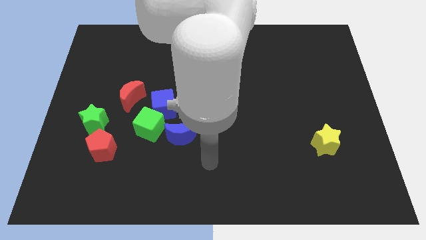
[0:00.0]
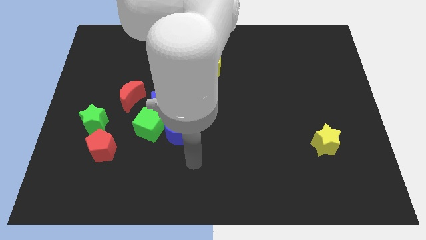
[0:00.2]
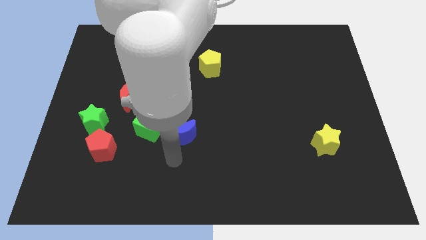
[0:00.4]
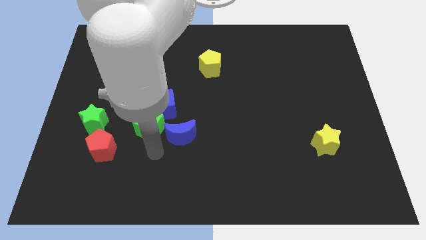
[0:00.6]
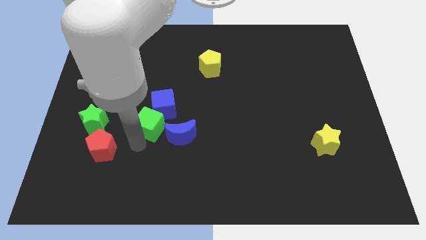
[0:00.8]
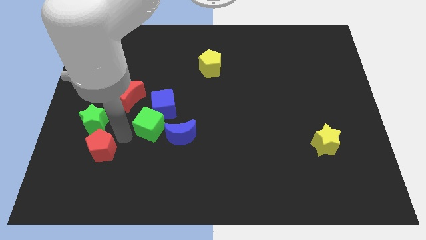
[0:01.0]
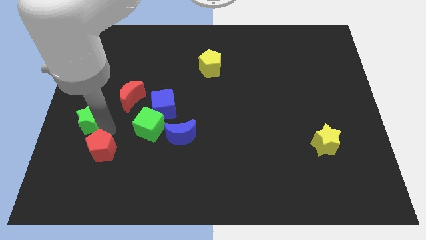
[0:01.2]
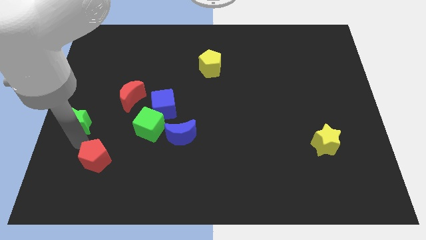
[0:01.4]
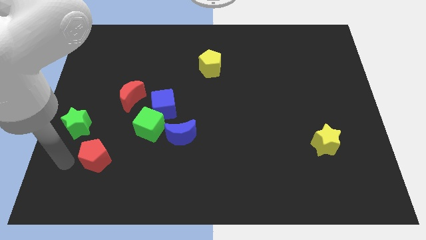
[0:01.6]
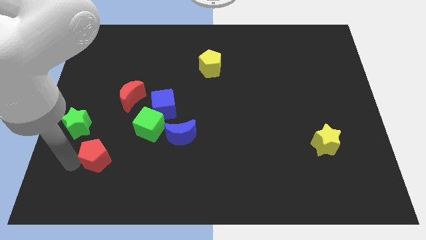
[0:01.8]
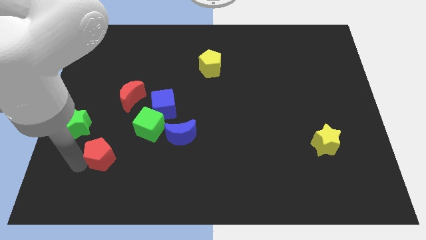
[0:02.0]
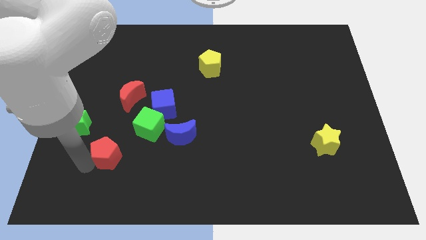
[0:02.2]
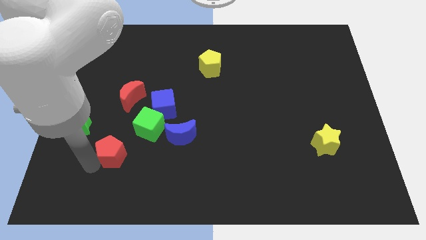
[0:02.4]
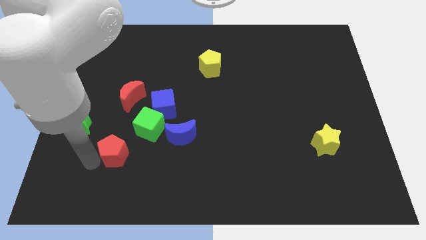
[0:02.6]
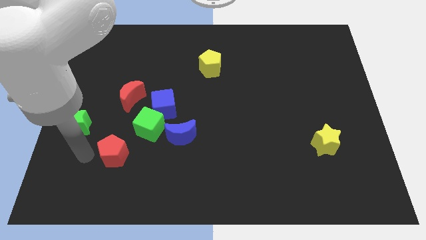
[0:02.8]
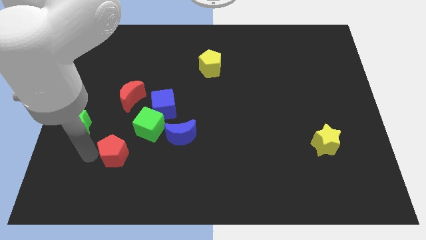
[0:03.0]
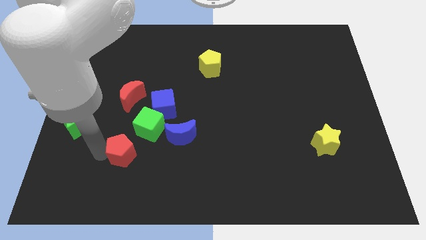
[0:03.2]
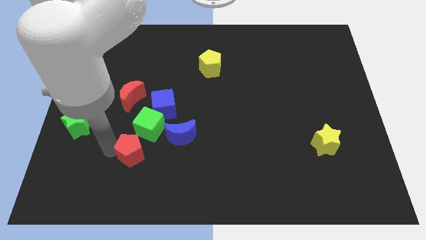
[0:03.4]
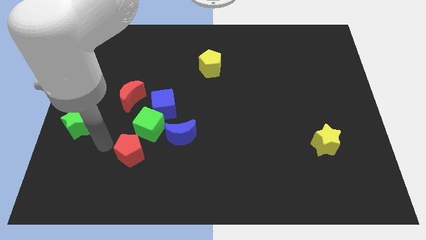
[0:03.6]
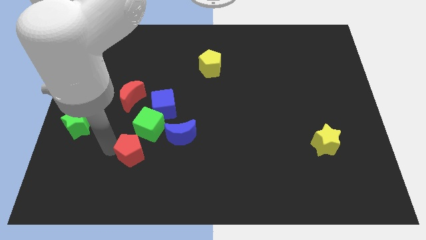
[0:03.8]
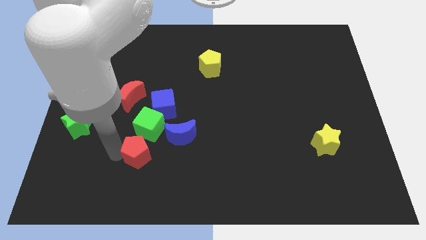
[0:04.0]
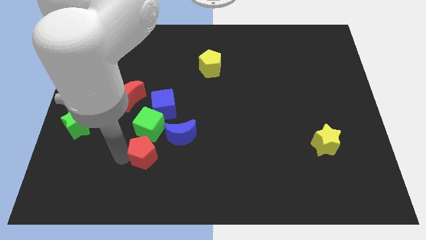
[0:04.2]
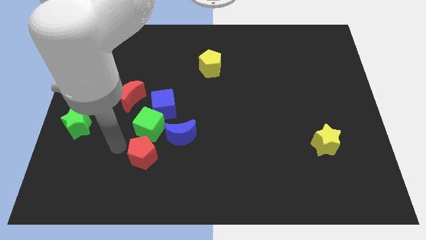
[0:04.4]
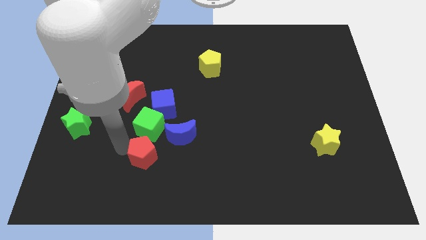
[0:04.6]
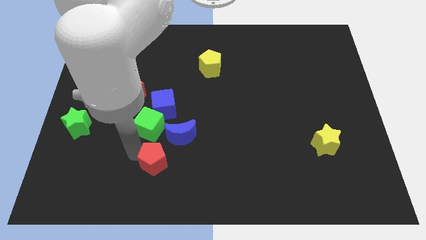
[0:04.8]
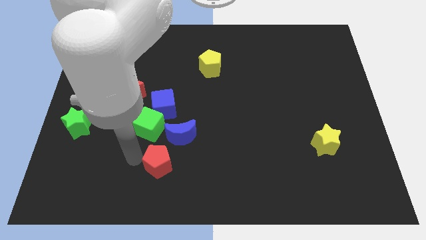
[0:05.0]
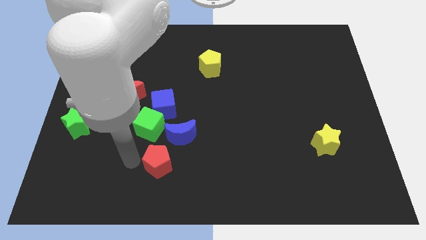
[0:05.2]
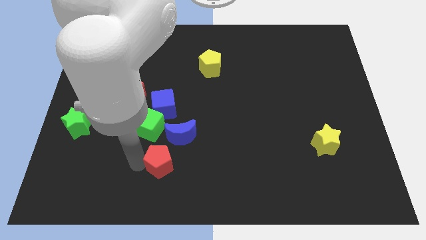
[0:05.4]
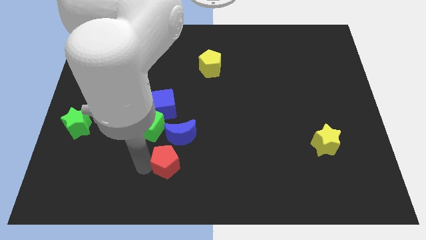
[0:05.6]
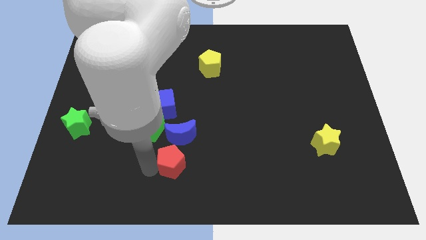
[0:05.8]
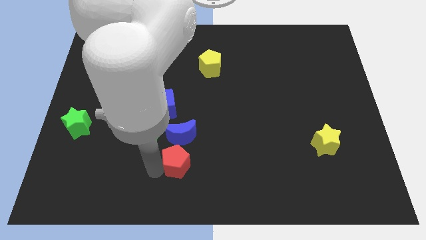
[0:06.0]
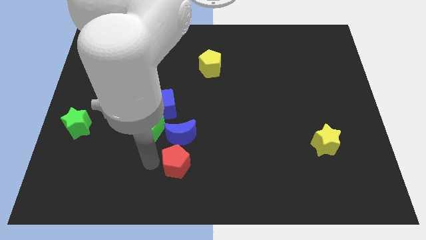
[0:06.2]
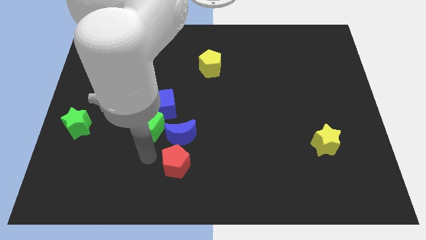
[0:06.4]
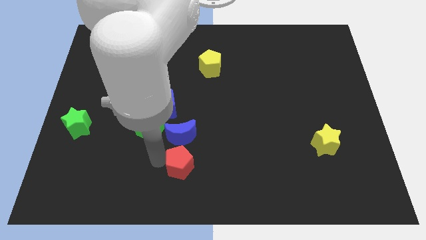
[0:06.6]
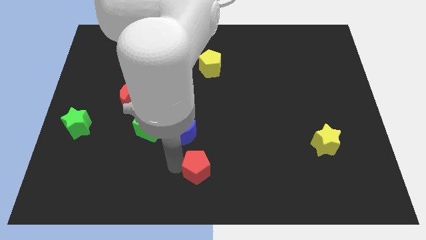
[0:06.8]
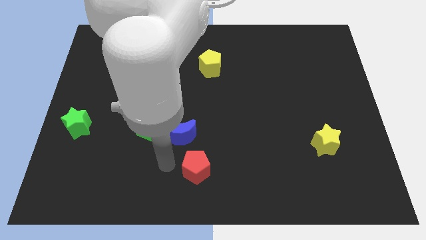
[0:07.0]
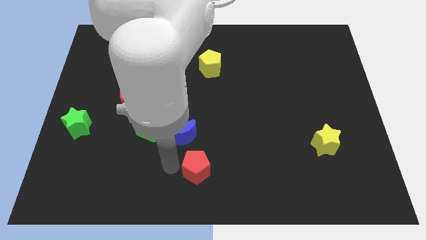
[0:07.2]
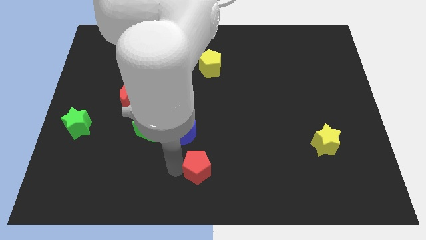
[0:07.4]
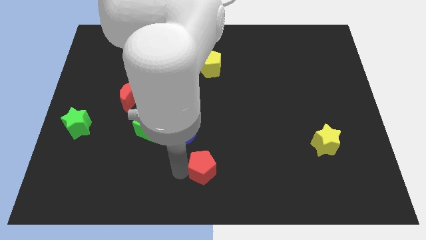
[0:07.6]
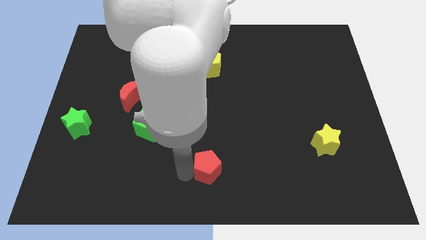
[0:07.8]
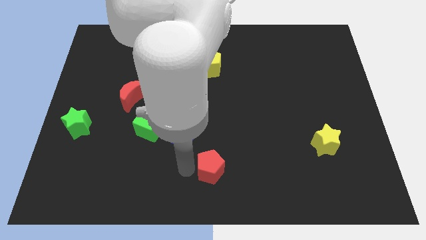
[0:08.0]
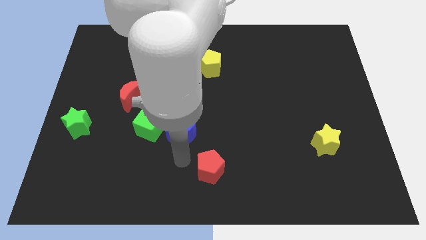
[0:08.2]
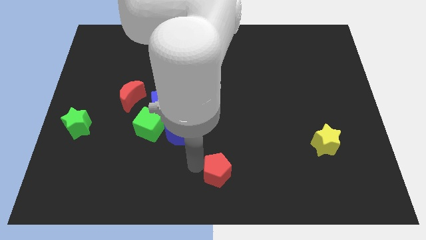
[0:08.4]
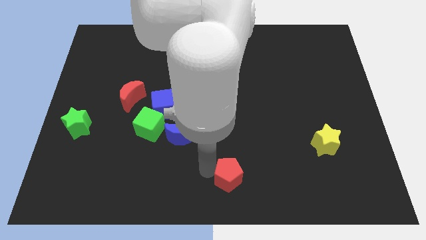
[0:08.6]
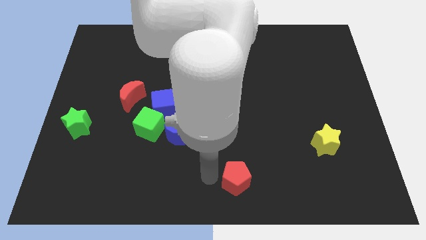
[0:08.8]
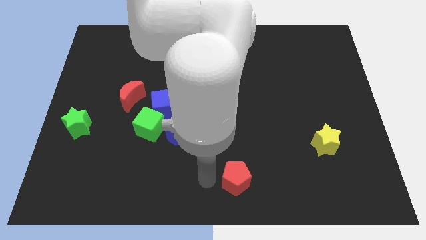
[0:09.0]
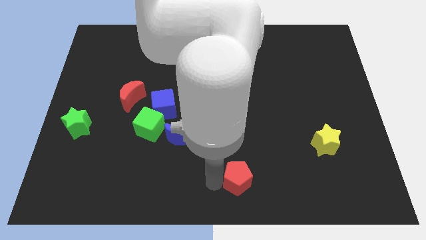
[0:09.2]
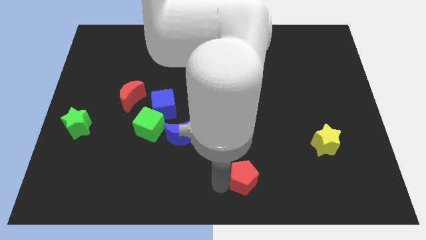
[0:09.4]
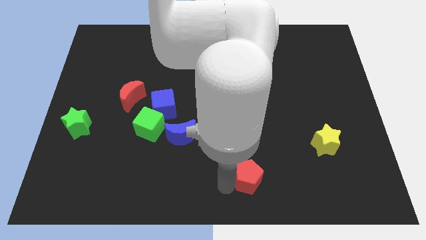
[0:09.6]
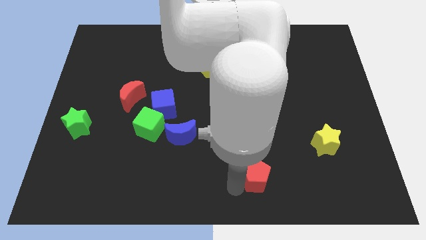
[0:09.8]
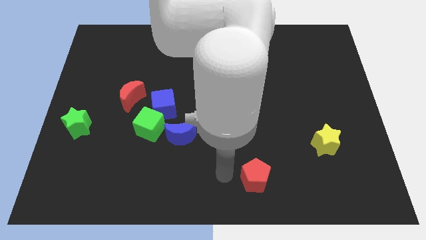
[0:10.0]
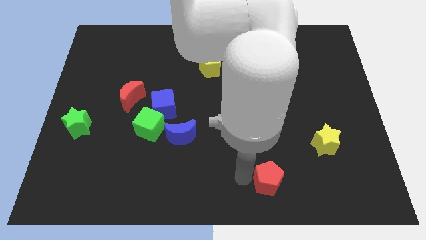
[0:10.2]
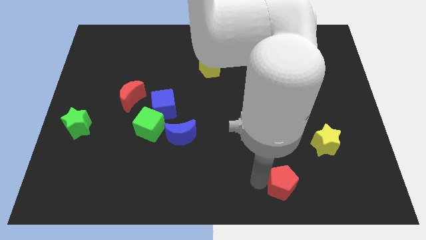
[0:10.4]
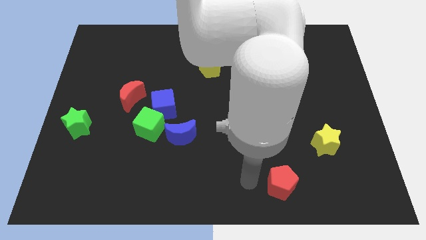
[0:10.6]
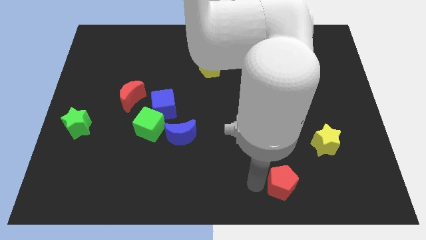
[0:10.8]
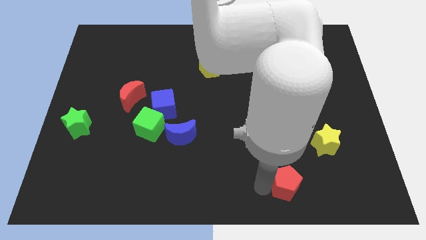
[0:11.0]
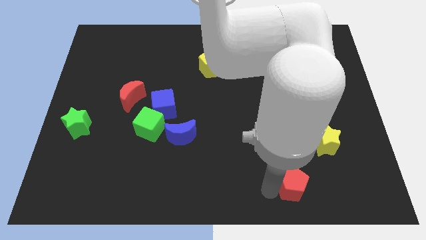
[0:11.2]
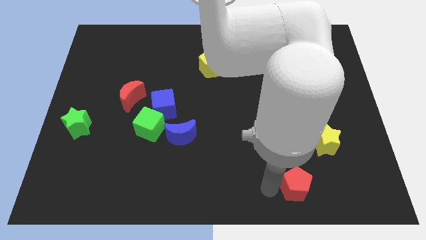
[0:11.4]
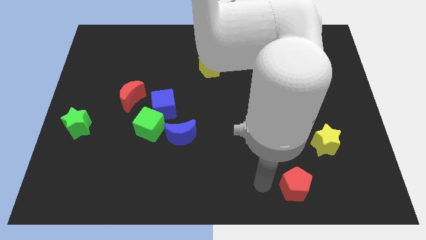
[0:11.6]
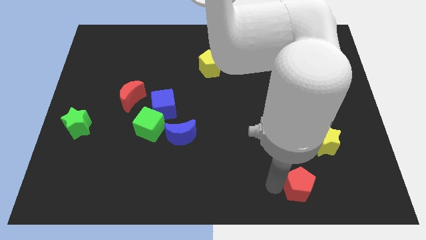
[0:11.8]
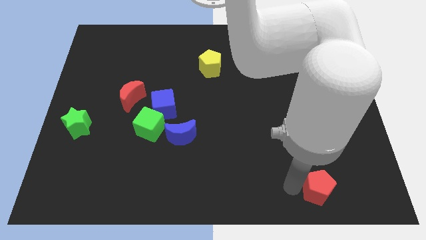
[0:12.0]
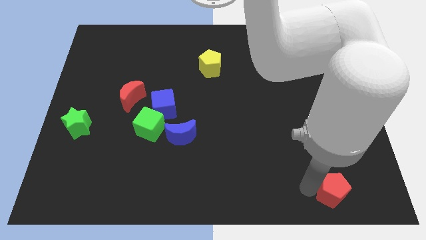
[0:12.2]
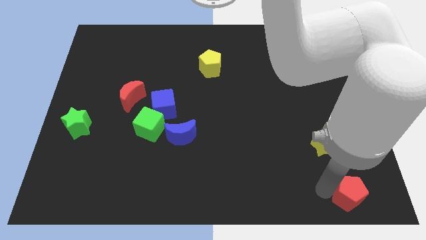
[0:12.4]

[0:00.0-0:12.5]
slide the red pentagon to the bottom right corner

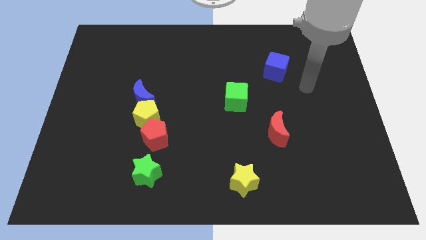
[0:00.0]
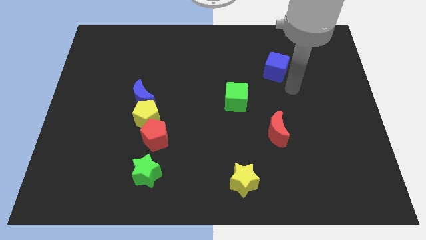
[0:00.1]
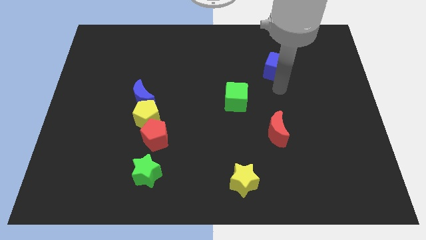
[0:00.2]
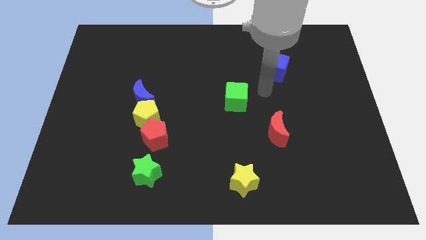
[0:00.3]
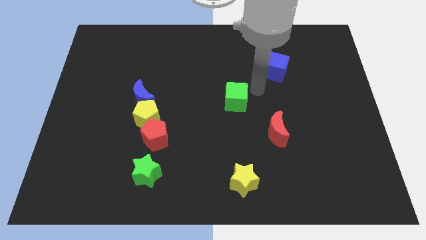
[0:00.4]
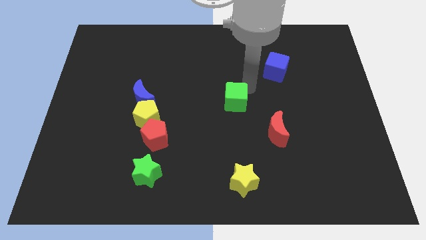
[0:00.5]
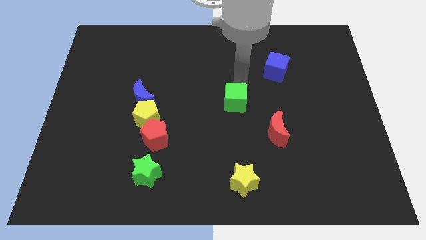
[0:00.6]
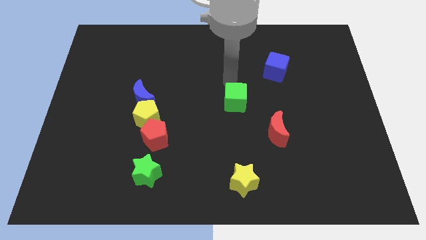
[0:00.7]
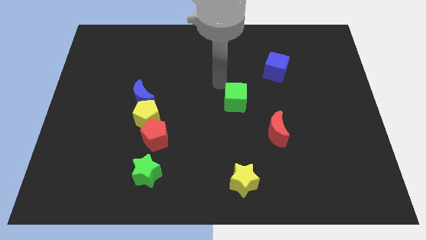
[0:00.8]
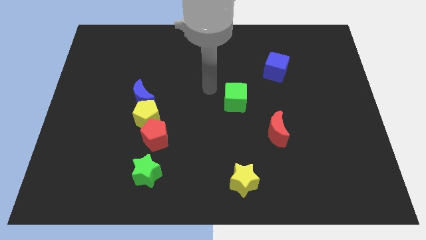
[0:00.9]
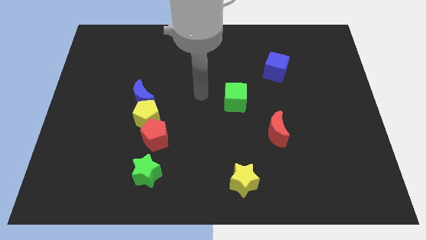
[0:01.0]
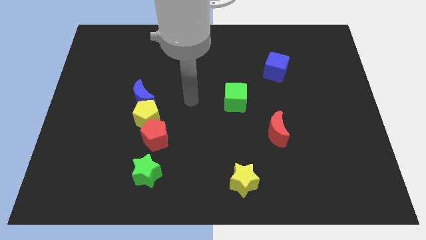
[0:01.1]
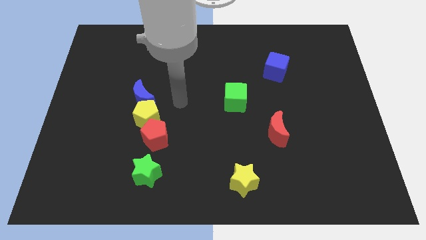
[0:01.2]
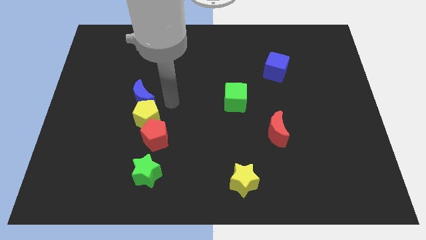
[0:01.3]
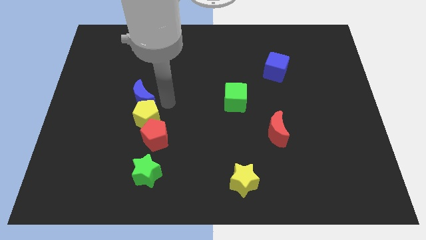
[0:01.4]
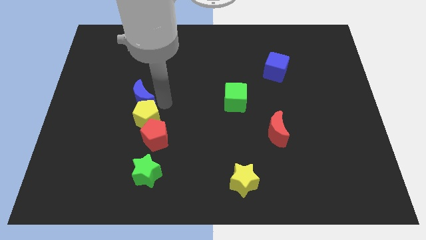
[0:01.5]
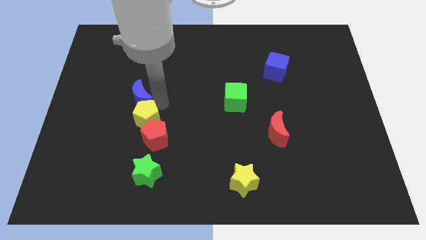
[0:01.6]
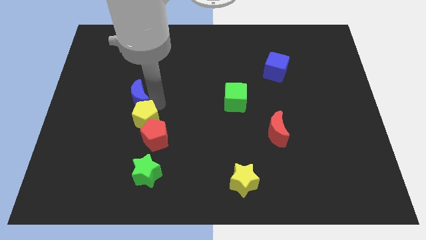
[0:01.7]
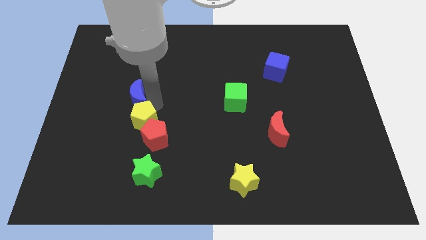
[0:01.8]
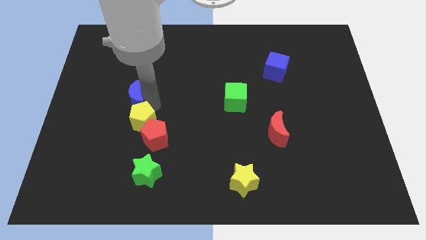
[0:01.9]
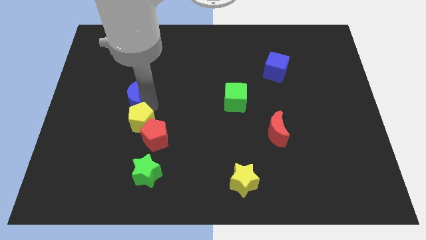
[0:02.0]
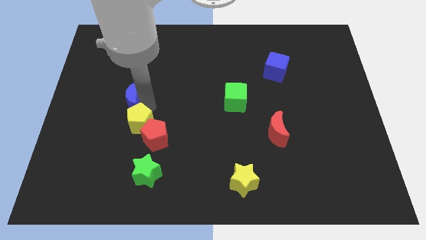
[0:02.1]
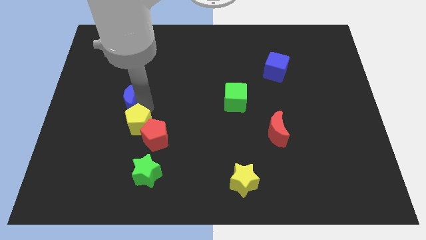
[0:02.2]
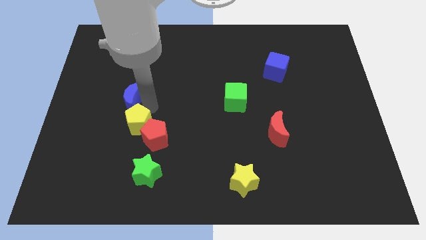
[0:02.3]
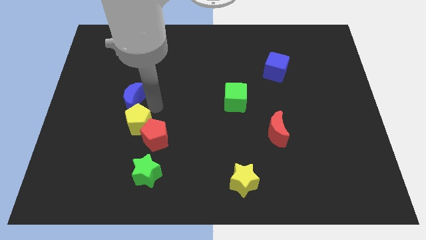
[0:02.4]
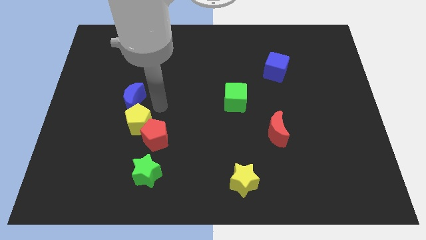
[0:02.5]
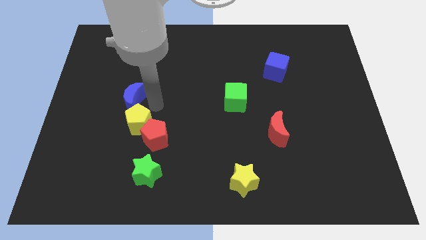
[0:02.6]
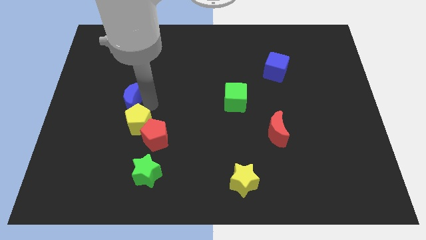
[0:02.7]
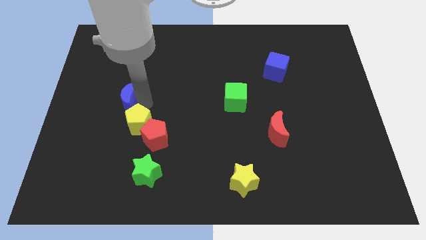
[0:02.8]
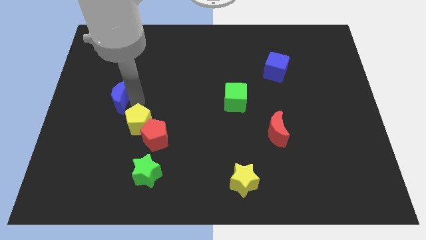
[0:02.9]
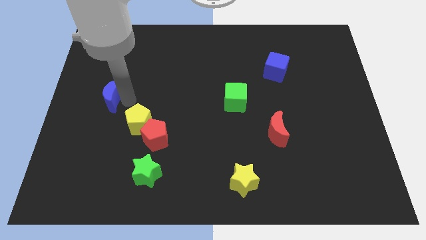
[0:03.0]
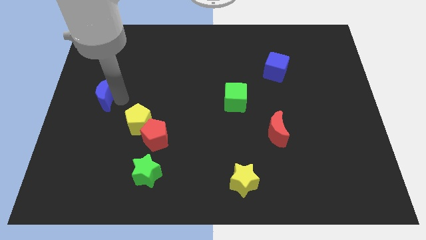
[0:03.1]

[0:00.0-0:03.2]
slide the blue moon to the left side
